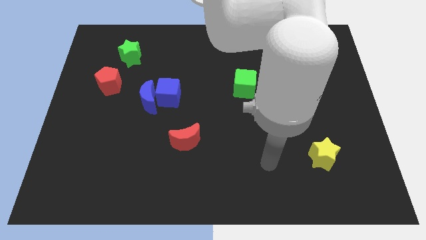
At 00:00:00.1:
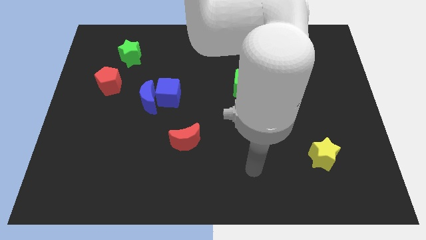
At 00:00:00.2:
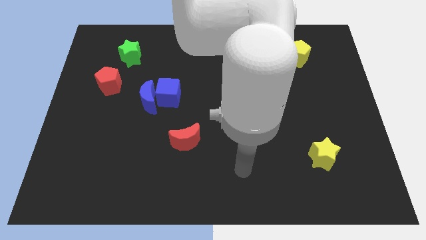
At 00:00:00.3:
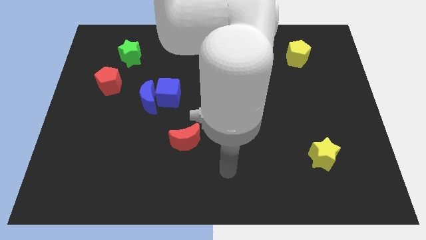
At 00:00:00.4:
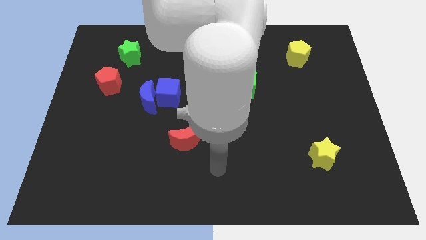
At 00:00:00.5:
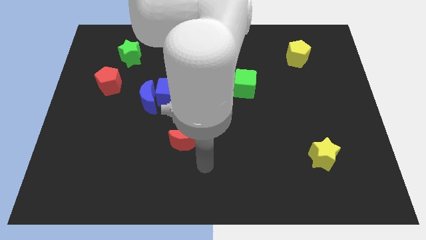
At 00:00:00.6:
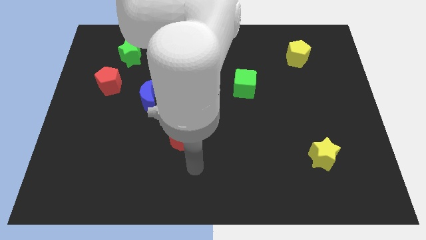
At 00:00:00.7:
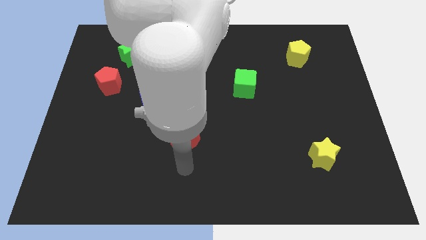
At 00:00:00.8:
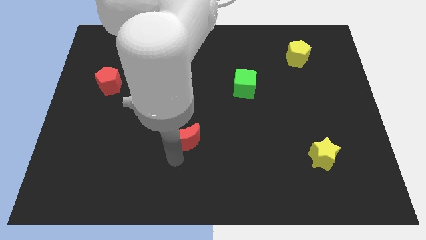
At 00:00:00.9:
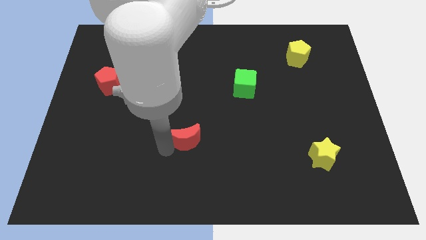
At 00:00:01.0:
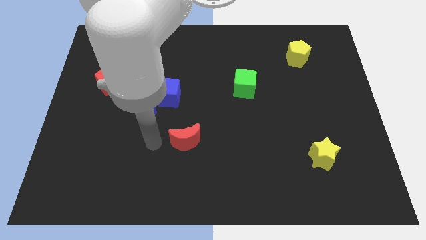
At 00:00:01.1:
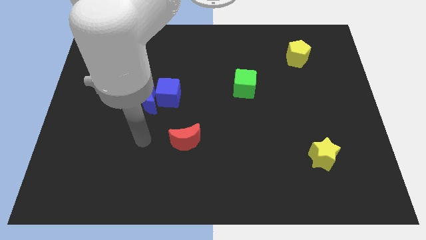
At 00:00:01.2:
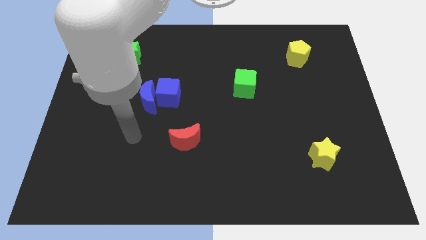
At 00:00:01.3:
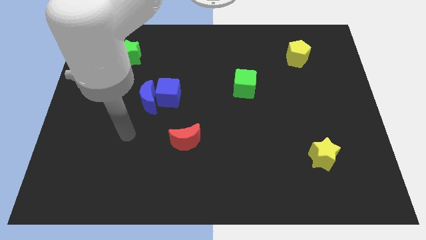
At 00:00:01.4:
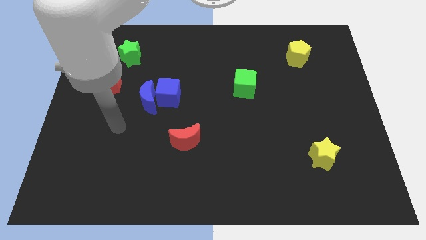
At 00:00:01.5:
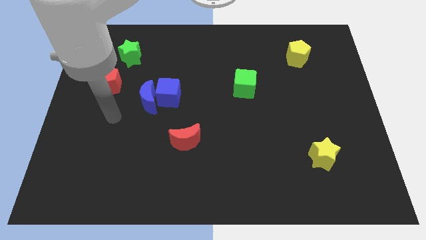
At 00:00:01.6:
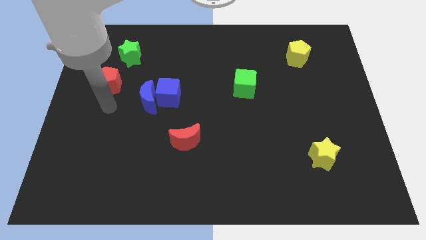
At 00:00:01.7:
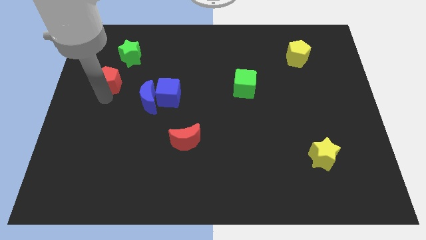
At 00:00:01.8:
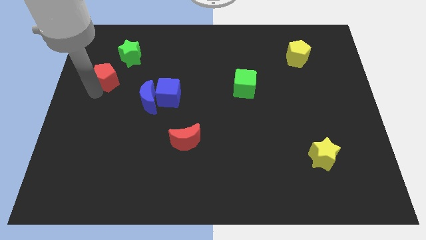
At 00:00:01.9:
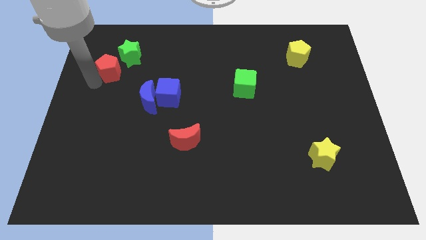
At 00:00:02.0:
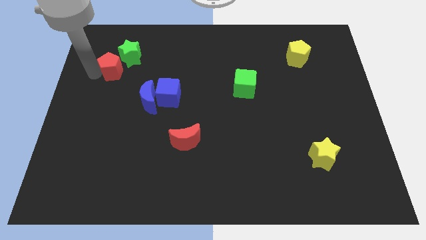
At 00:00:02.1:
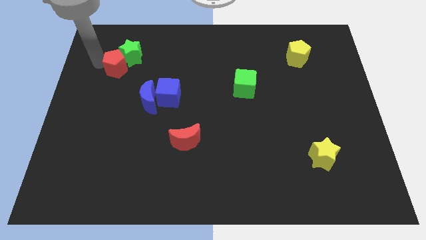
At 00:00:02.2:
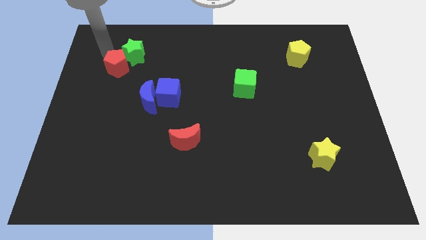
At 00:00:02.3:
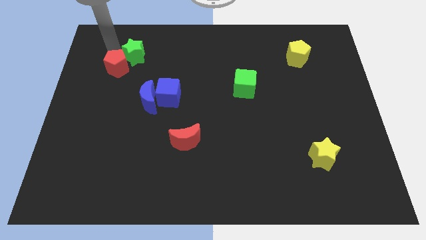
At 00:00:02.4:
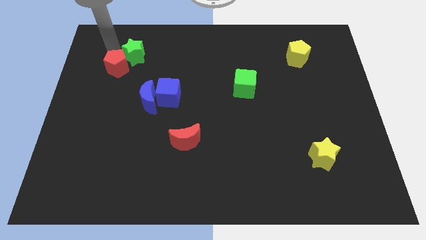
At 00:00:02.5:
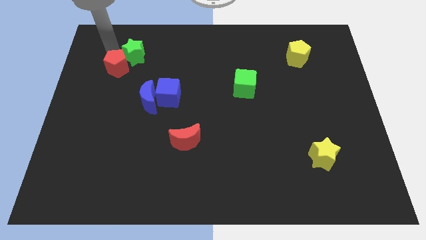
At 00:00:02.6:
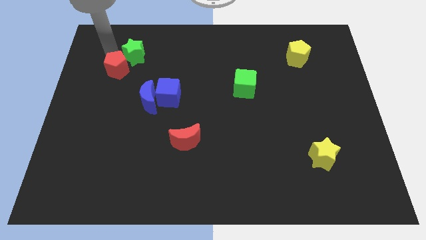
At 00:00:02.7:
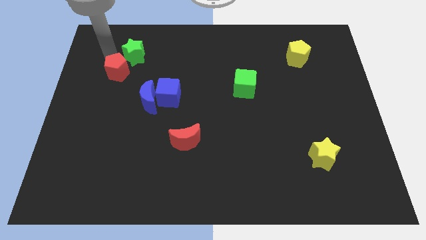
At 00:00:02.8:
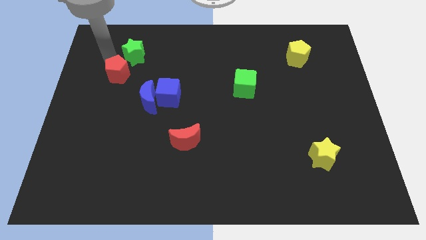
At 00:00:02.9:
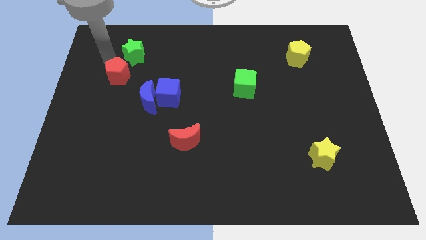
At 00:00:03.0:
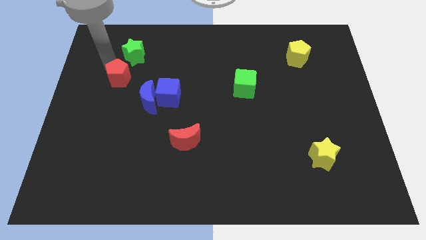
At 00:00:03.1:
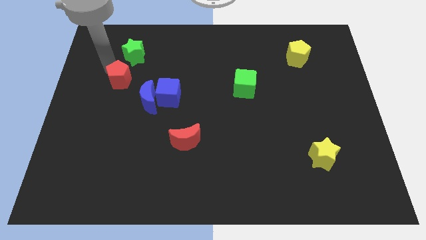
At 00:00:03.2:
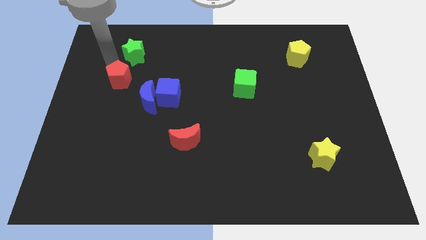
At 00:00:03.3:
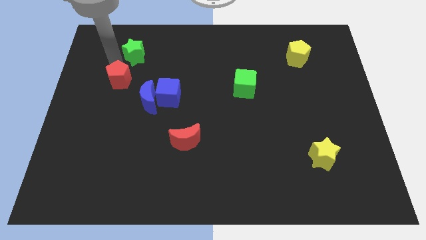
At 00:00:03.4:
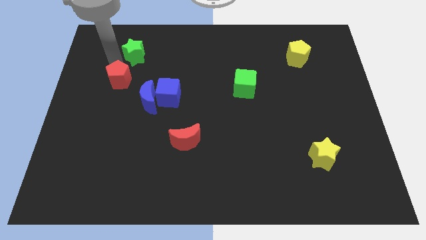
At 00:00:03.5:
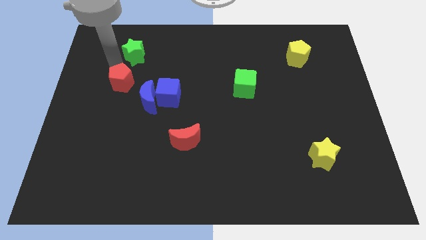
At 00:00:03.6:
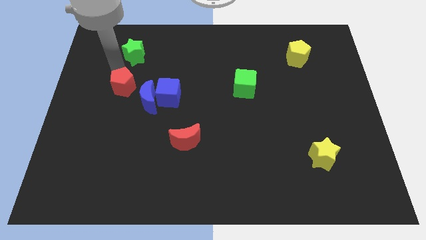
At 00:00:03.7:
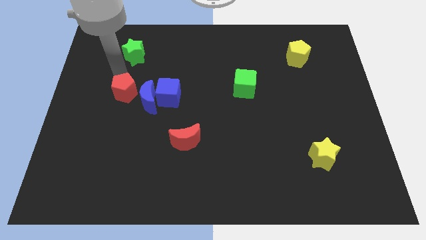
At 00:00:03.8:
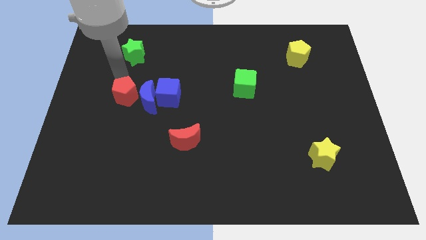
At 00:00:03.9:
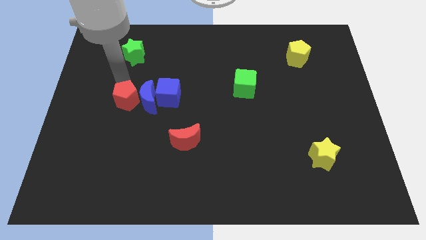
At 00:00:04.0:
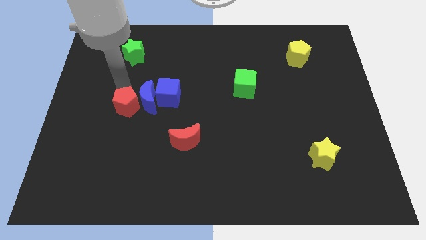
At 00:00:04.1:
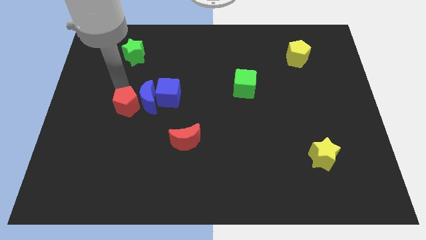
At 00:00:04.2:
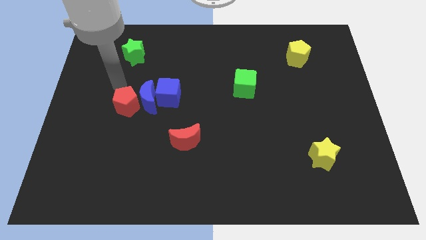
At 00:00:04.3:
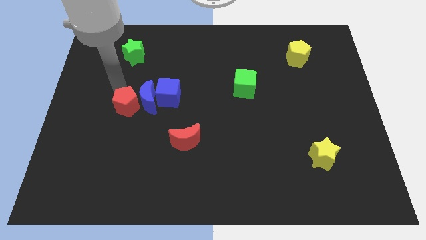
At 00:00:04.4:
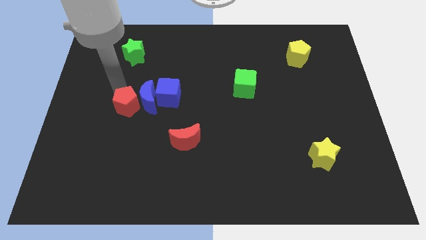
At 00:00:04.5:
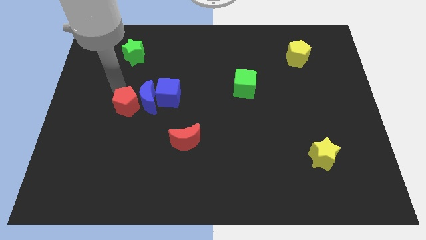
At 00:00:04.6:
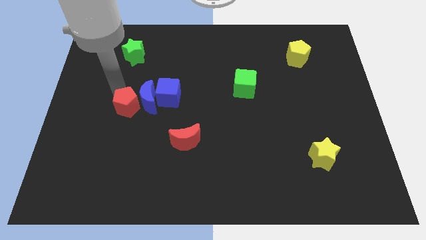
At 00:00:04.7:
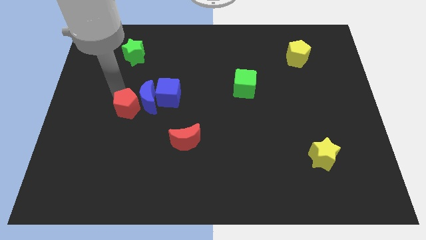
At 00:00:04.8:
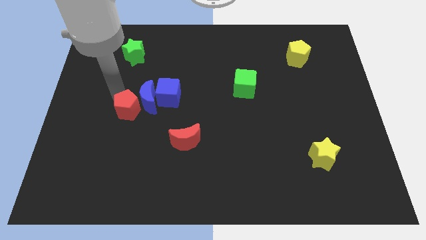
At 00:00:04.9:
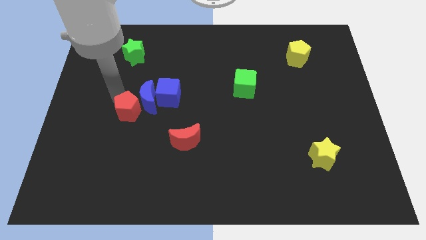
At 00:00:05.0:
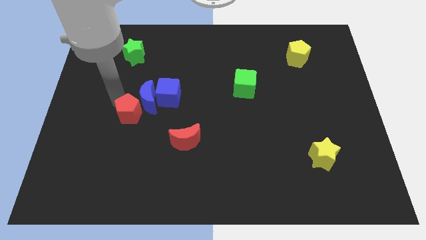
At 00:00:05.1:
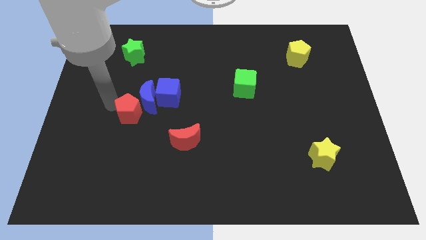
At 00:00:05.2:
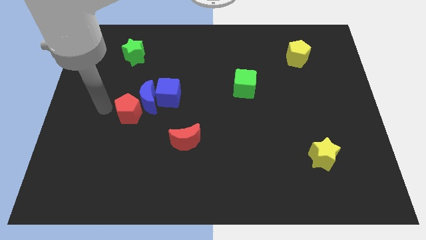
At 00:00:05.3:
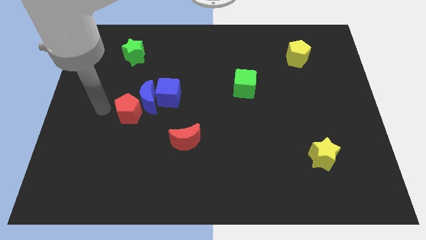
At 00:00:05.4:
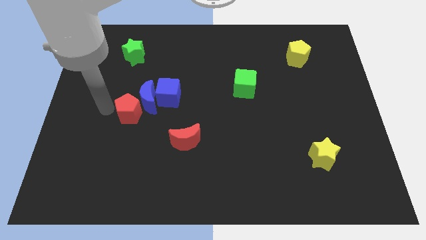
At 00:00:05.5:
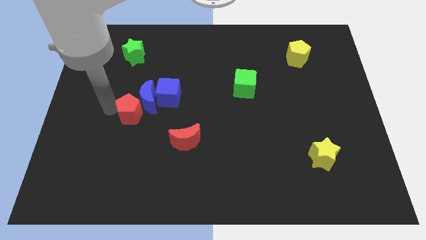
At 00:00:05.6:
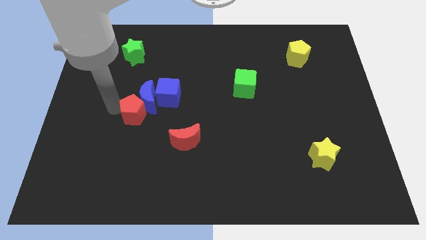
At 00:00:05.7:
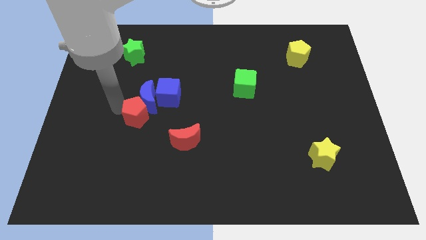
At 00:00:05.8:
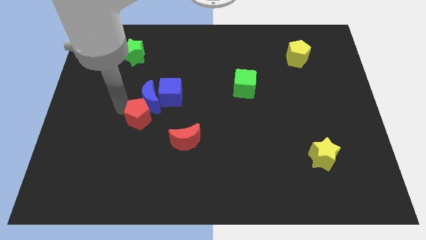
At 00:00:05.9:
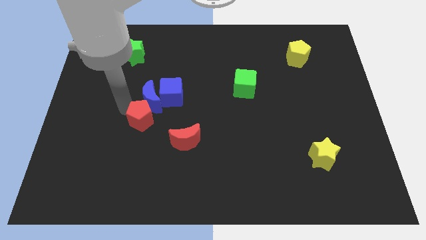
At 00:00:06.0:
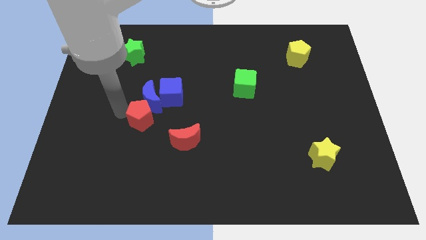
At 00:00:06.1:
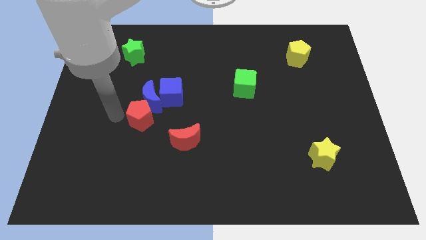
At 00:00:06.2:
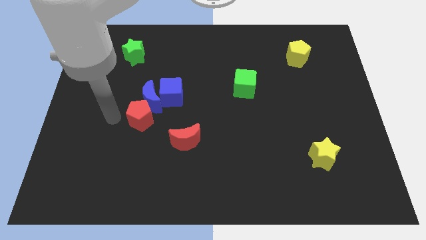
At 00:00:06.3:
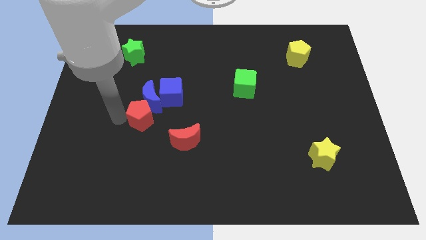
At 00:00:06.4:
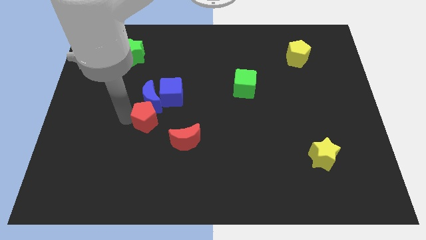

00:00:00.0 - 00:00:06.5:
move the red pentagon diagonally down and to the right of the blue moon

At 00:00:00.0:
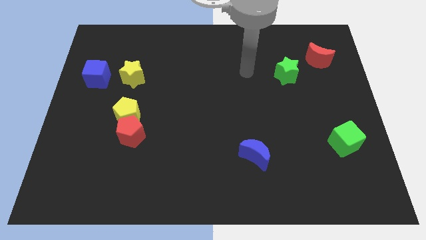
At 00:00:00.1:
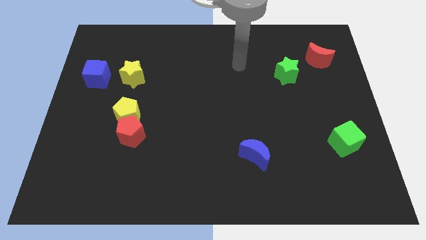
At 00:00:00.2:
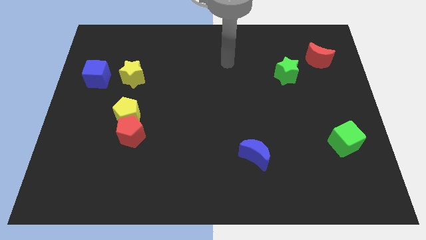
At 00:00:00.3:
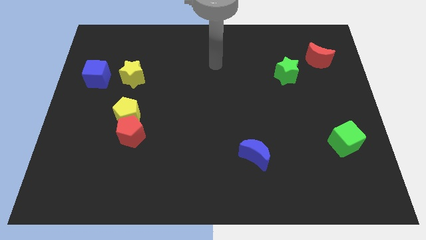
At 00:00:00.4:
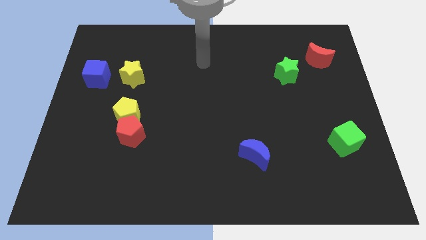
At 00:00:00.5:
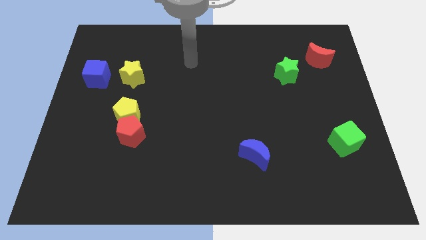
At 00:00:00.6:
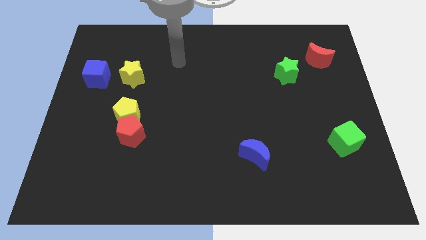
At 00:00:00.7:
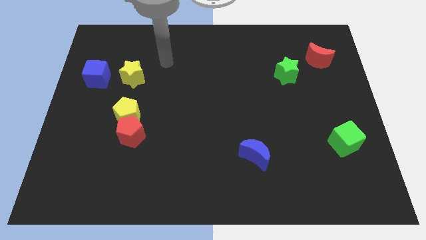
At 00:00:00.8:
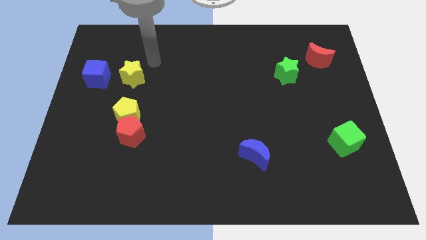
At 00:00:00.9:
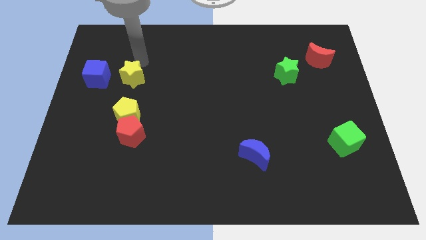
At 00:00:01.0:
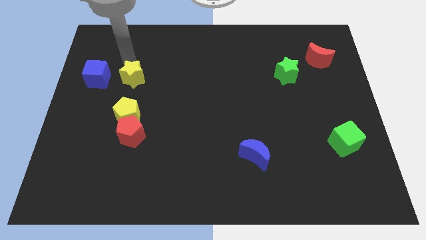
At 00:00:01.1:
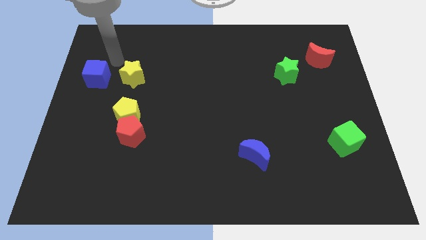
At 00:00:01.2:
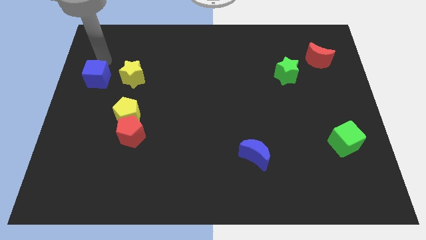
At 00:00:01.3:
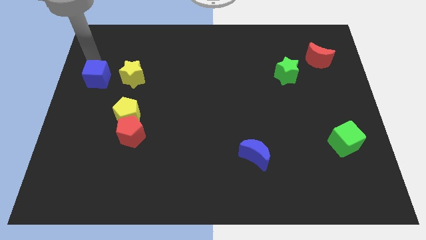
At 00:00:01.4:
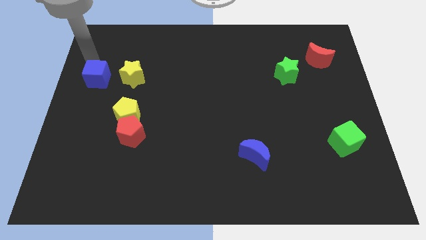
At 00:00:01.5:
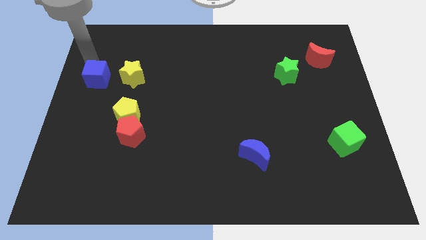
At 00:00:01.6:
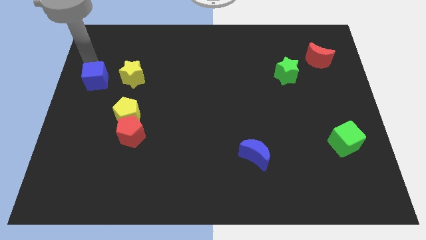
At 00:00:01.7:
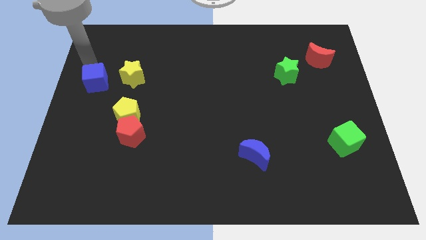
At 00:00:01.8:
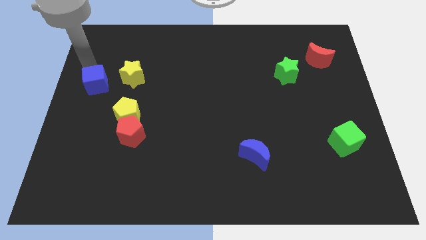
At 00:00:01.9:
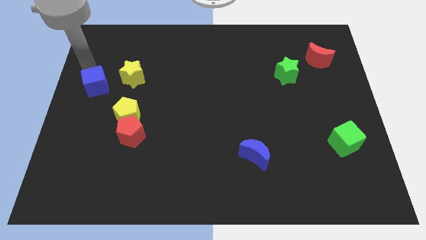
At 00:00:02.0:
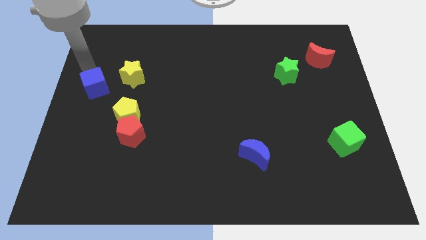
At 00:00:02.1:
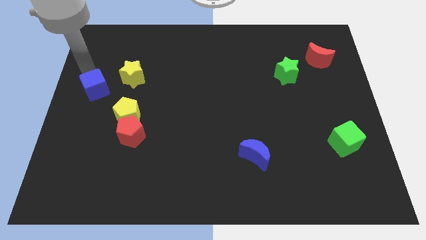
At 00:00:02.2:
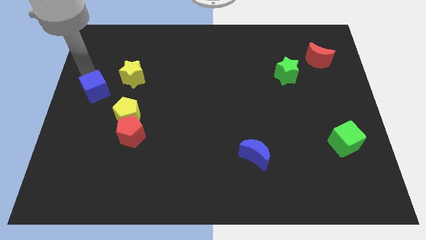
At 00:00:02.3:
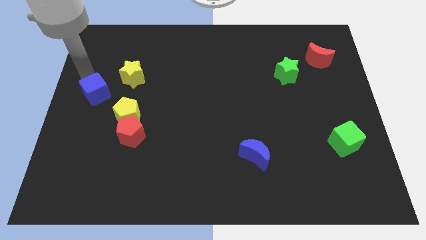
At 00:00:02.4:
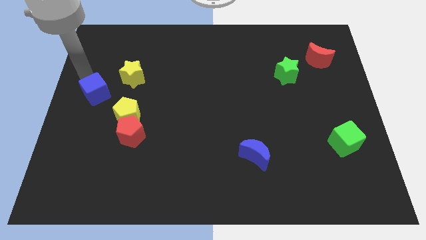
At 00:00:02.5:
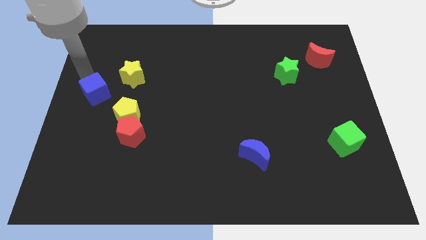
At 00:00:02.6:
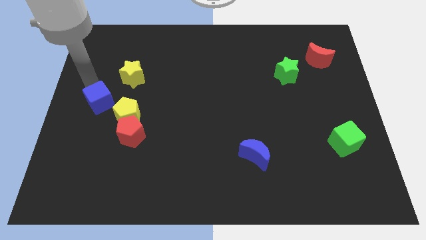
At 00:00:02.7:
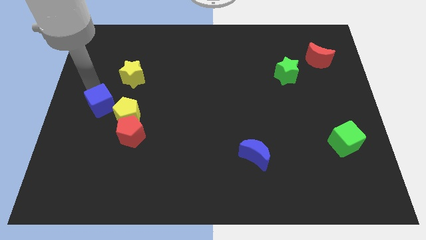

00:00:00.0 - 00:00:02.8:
push the blue cube to the top left of the red pentagon
